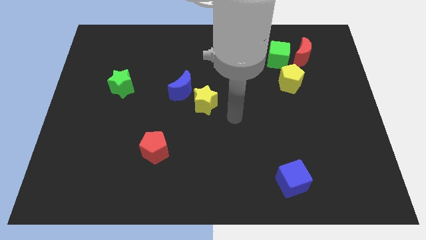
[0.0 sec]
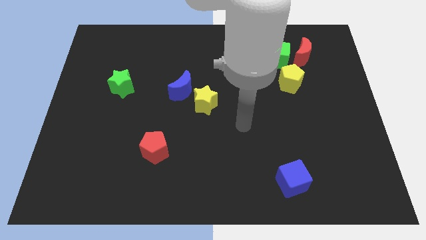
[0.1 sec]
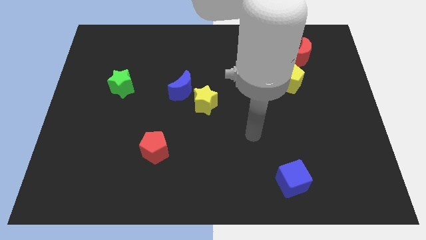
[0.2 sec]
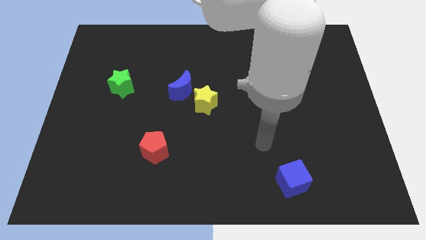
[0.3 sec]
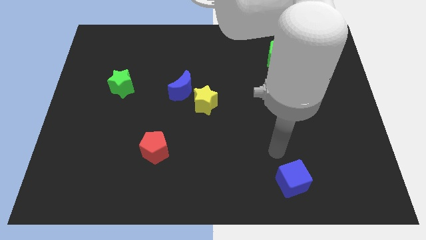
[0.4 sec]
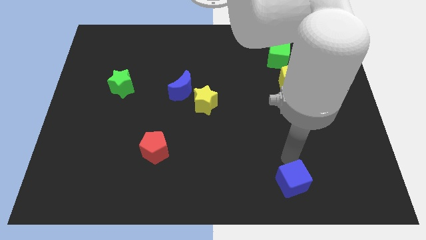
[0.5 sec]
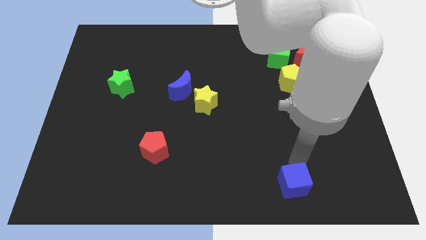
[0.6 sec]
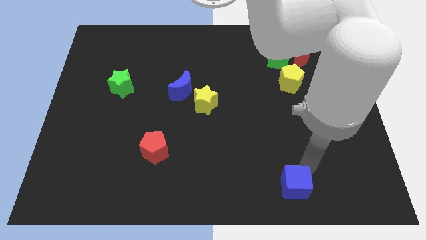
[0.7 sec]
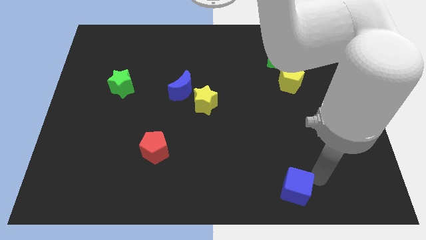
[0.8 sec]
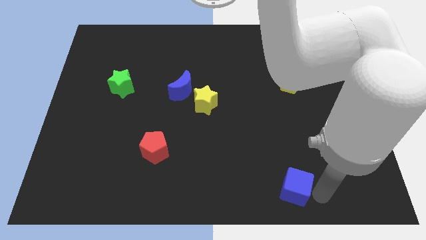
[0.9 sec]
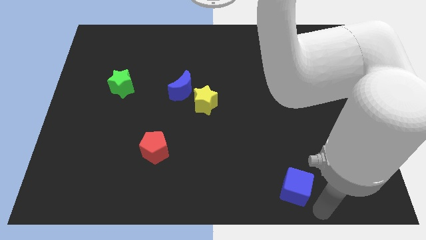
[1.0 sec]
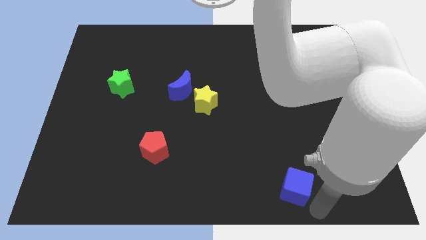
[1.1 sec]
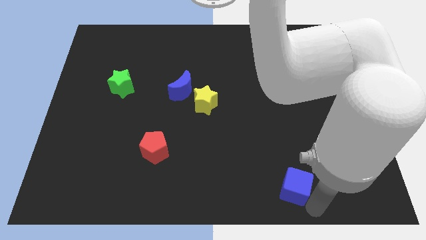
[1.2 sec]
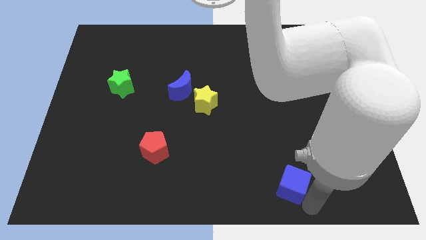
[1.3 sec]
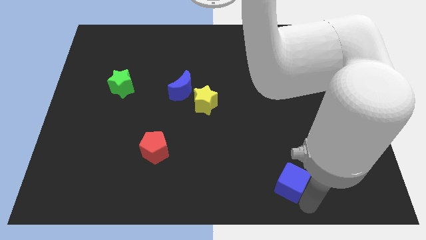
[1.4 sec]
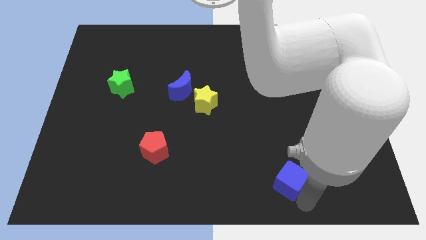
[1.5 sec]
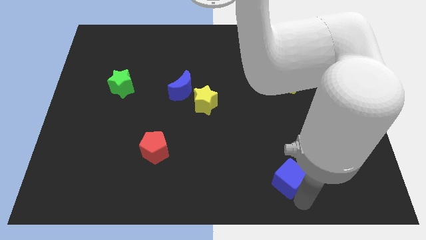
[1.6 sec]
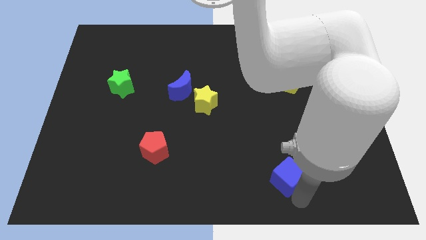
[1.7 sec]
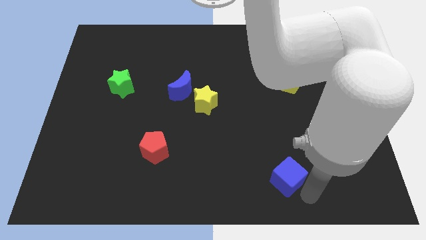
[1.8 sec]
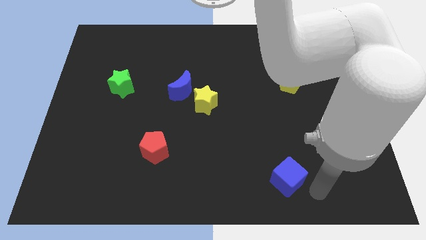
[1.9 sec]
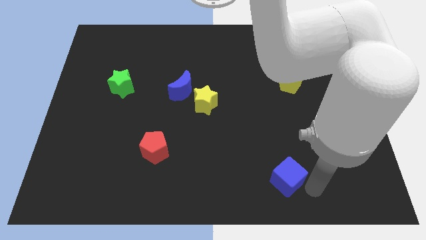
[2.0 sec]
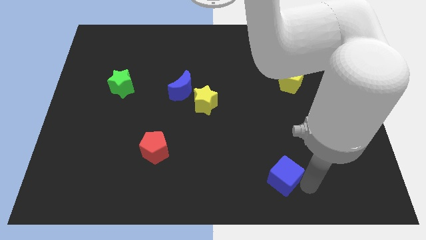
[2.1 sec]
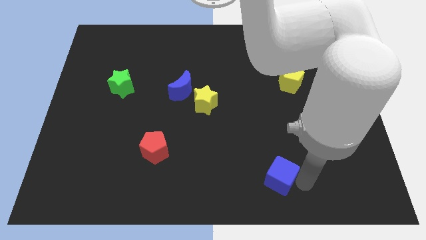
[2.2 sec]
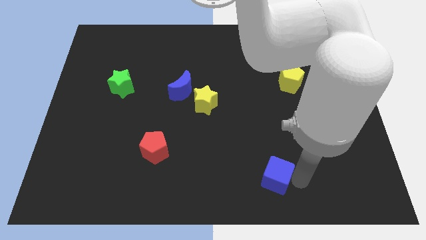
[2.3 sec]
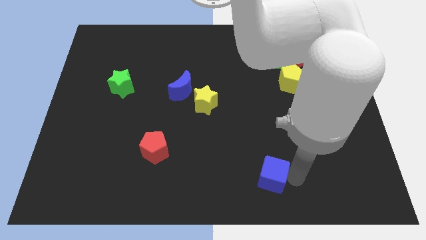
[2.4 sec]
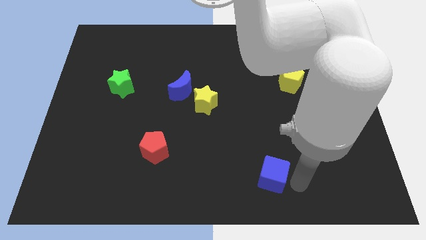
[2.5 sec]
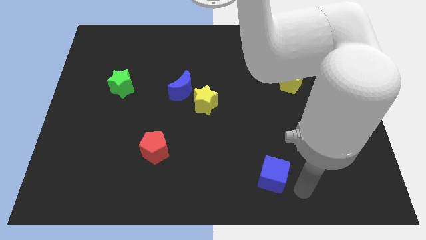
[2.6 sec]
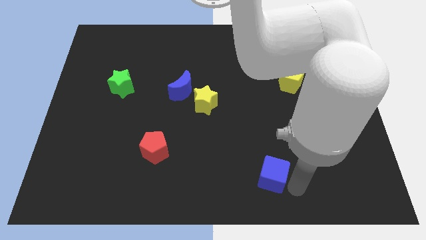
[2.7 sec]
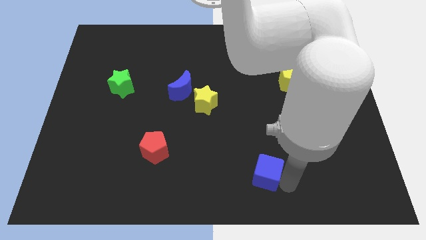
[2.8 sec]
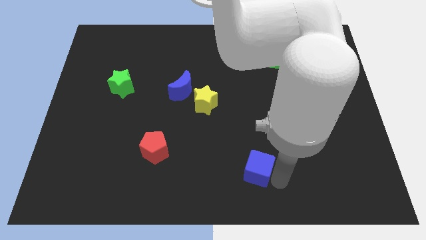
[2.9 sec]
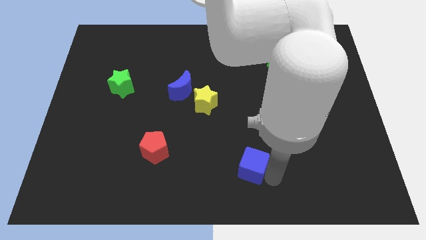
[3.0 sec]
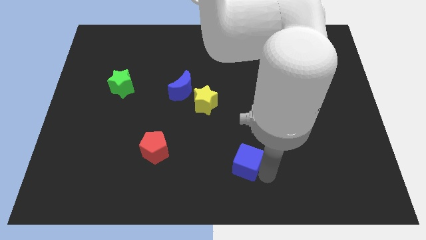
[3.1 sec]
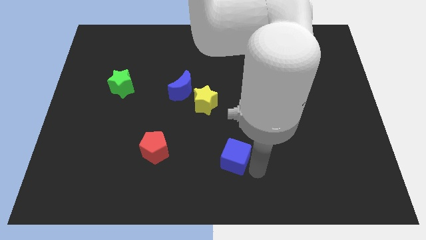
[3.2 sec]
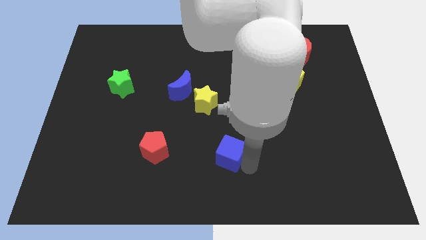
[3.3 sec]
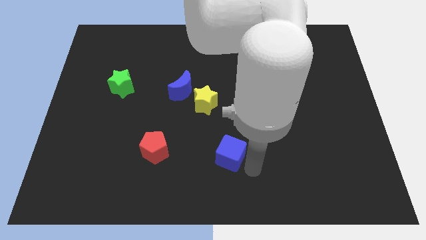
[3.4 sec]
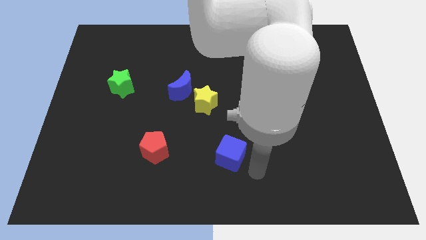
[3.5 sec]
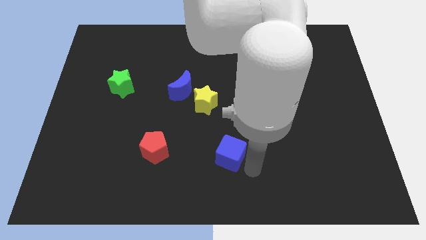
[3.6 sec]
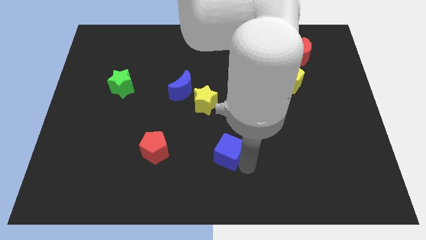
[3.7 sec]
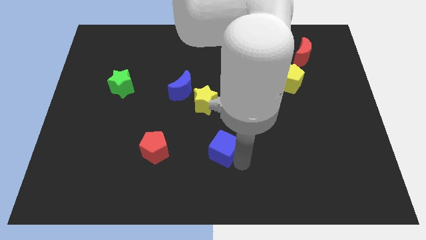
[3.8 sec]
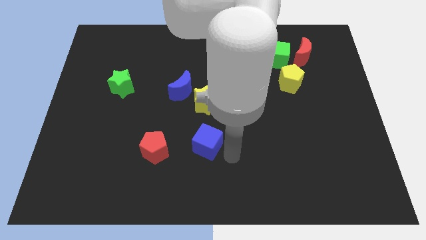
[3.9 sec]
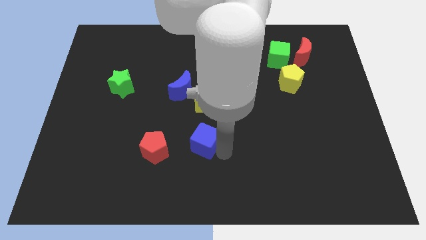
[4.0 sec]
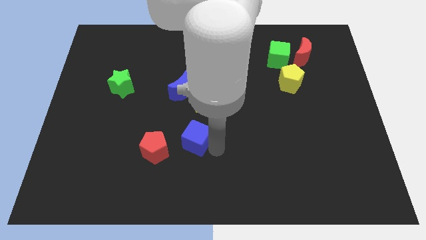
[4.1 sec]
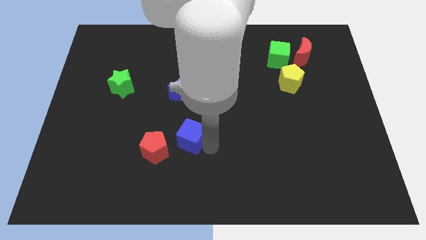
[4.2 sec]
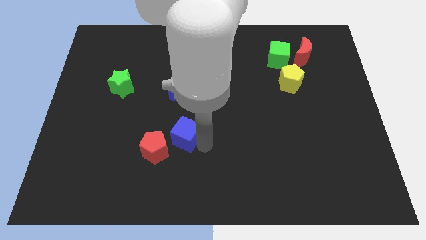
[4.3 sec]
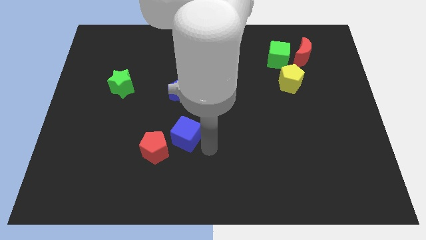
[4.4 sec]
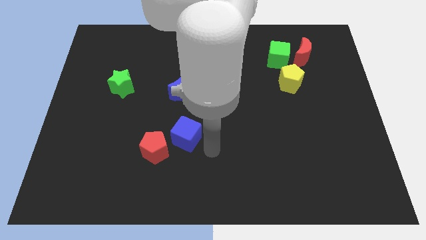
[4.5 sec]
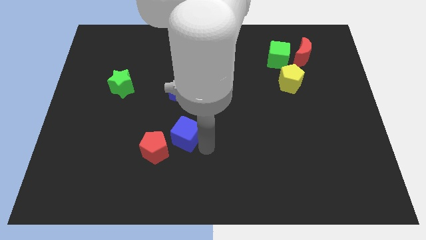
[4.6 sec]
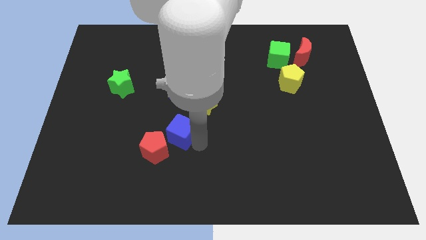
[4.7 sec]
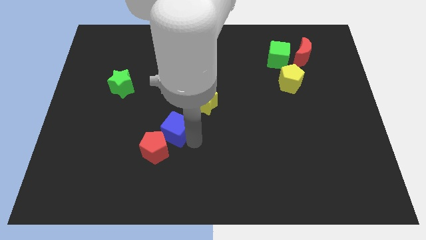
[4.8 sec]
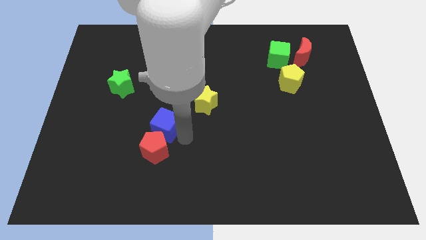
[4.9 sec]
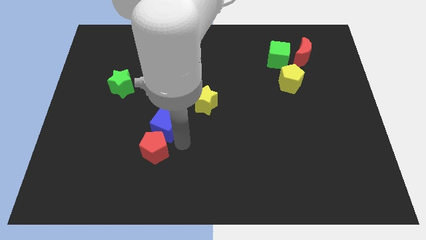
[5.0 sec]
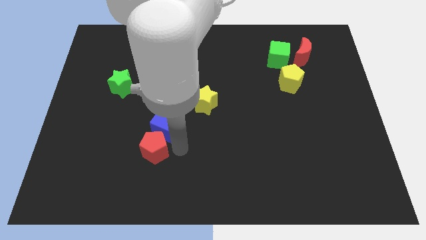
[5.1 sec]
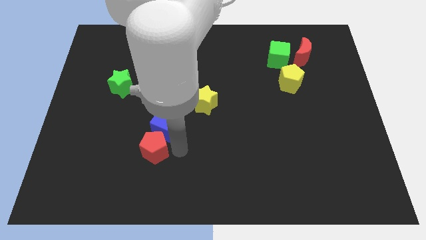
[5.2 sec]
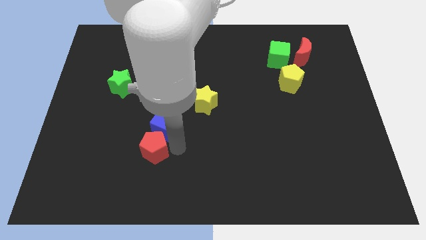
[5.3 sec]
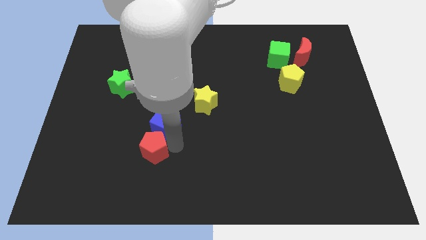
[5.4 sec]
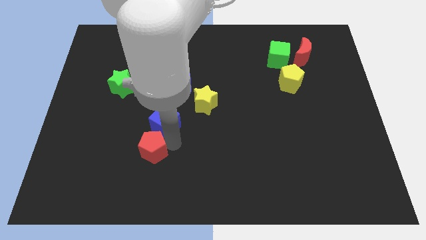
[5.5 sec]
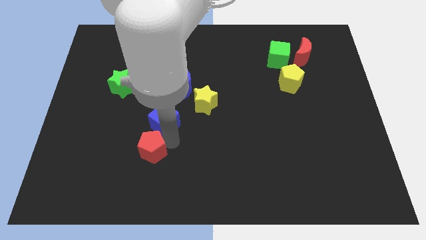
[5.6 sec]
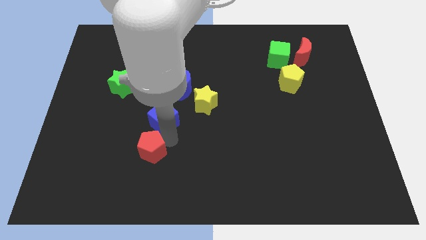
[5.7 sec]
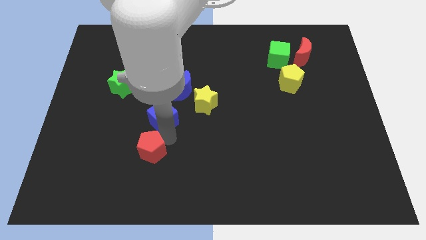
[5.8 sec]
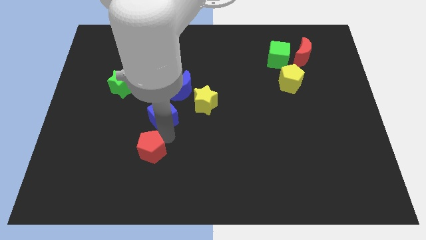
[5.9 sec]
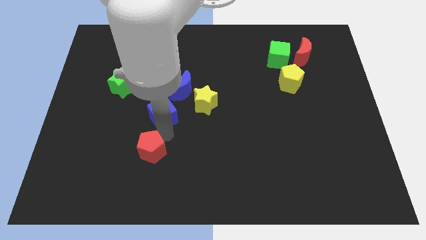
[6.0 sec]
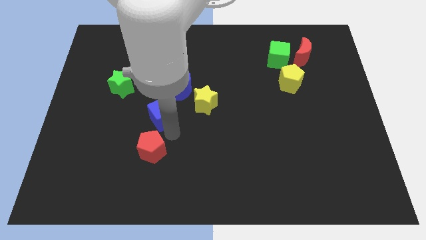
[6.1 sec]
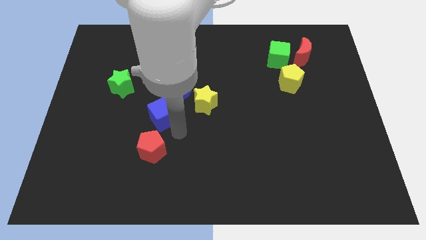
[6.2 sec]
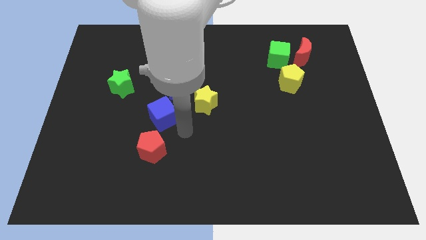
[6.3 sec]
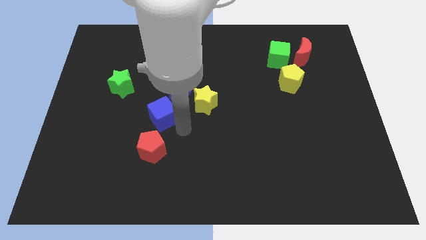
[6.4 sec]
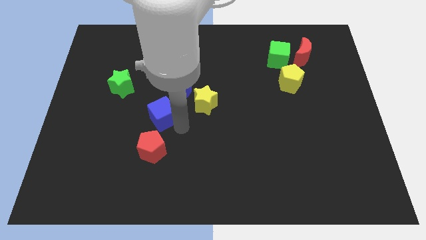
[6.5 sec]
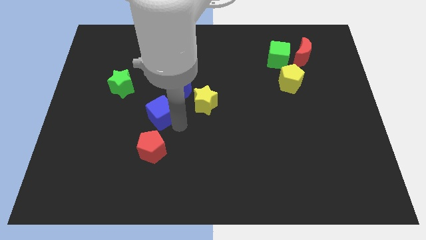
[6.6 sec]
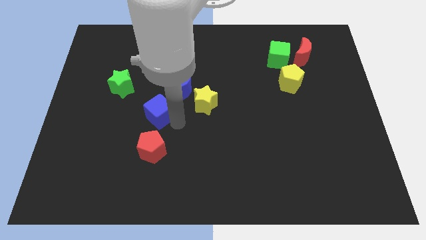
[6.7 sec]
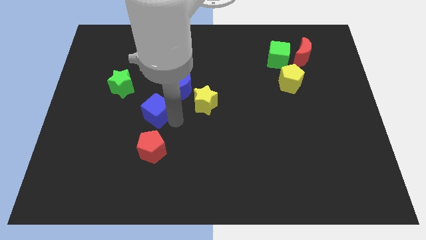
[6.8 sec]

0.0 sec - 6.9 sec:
move the blue cube to the bottom right side of the green star

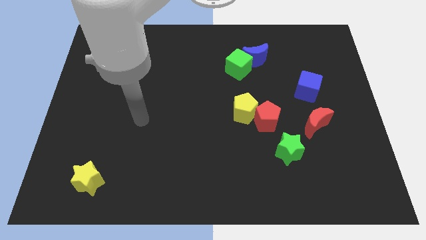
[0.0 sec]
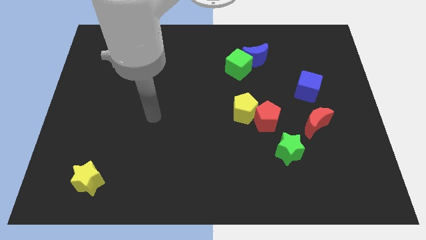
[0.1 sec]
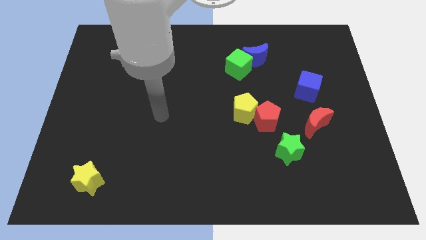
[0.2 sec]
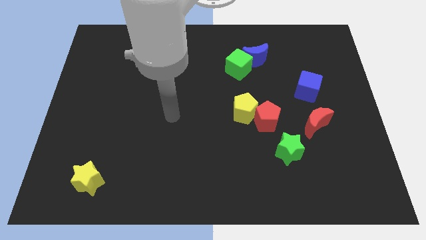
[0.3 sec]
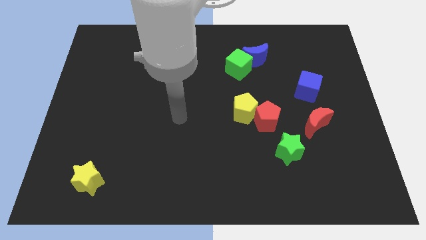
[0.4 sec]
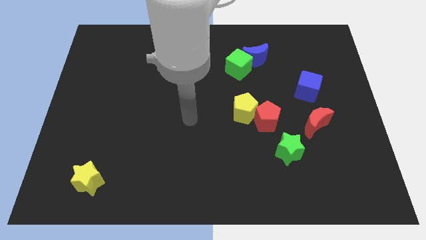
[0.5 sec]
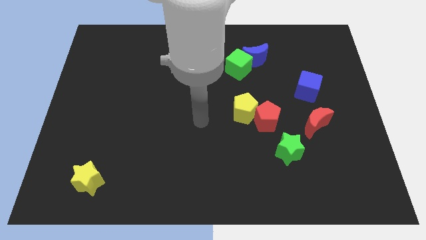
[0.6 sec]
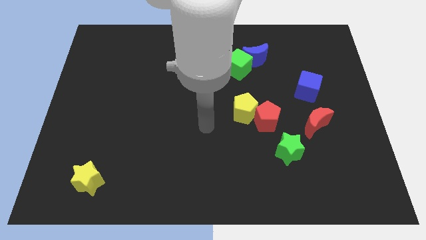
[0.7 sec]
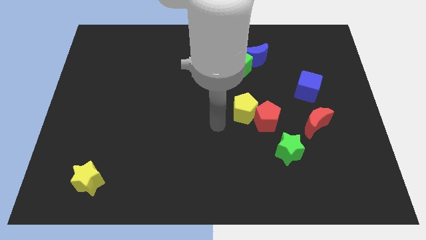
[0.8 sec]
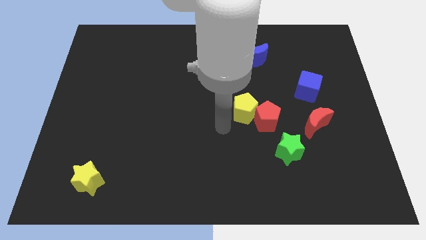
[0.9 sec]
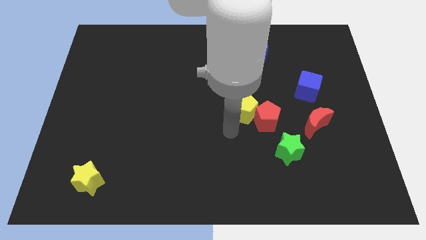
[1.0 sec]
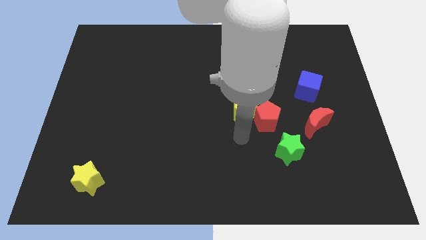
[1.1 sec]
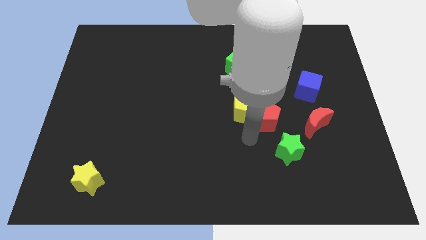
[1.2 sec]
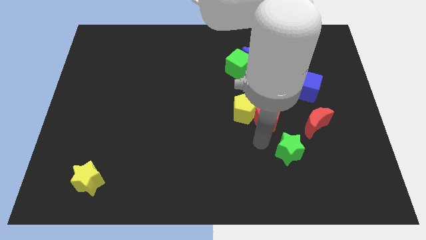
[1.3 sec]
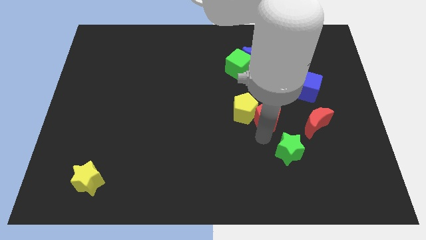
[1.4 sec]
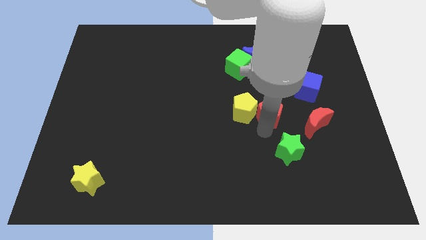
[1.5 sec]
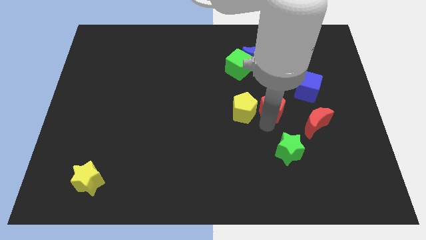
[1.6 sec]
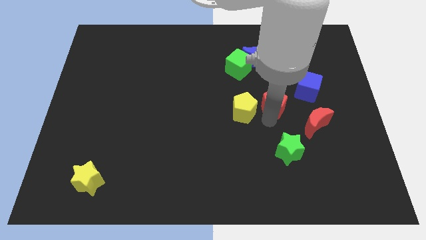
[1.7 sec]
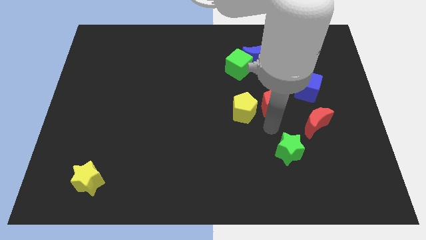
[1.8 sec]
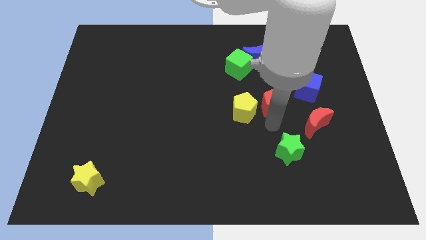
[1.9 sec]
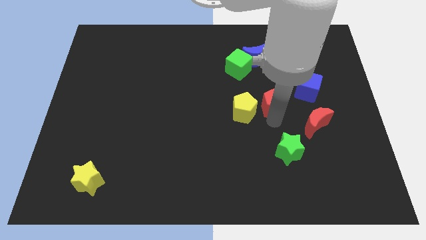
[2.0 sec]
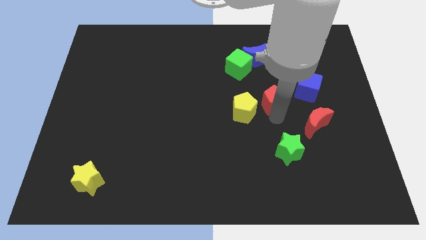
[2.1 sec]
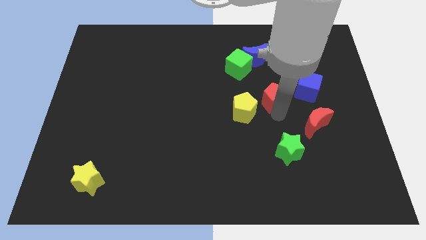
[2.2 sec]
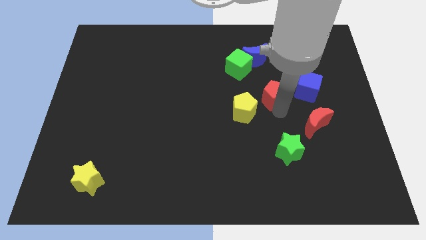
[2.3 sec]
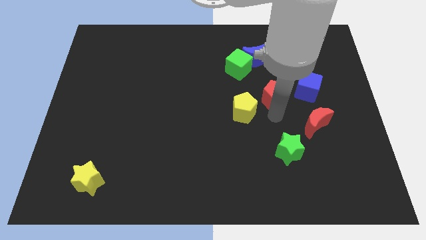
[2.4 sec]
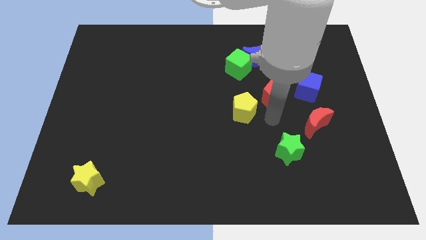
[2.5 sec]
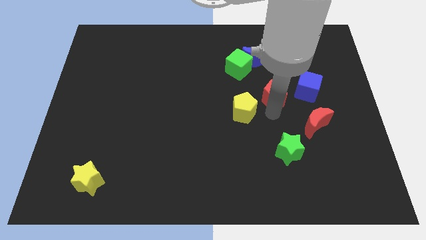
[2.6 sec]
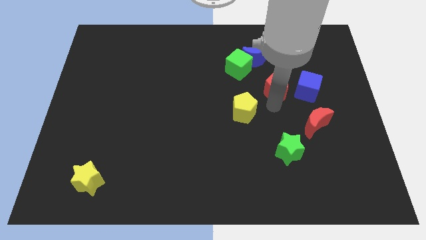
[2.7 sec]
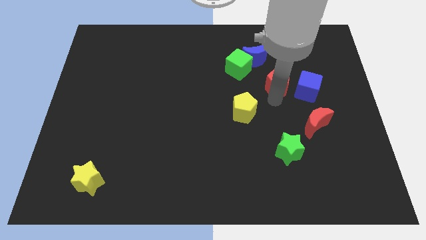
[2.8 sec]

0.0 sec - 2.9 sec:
push the red pentagon to the bottom right of the blue moon
